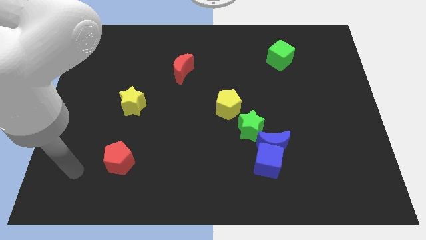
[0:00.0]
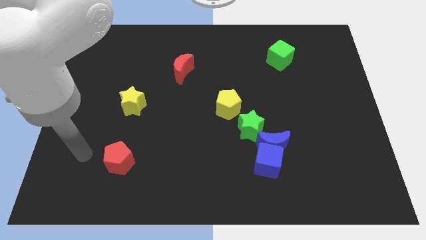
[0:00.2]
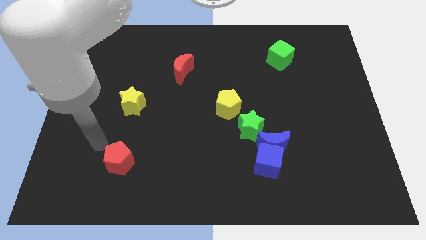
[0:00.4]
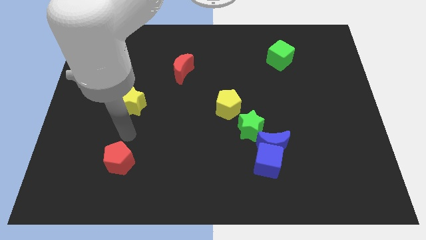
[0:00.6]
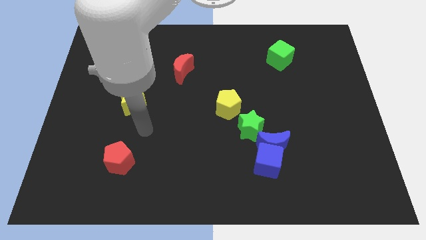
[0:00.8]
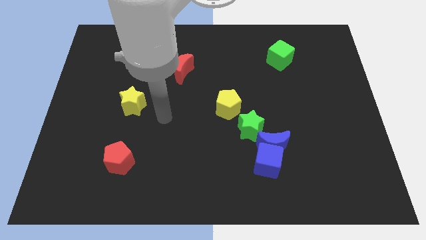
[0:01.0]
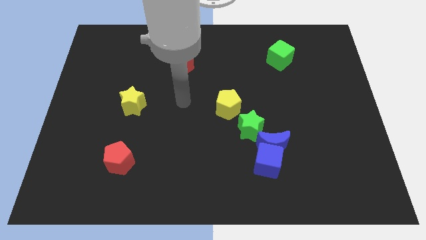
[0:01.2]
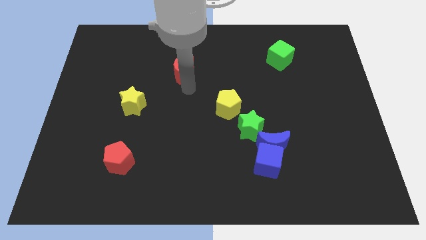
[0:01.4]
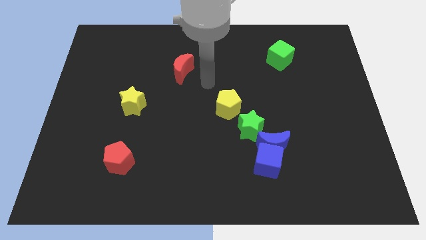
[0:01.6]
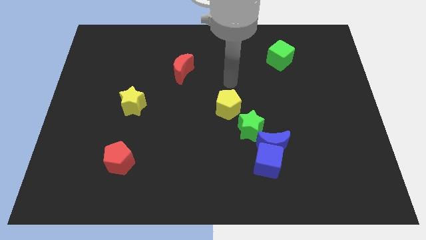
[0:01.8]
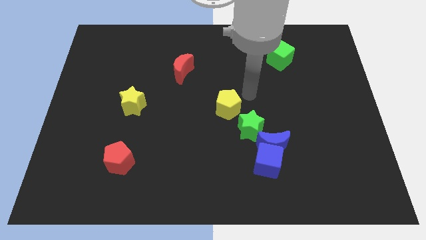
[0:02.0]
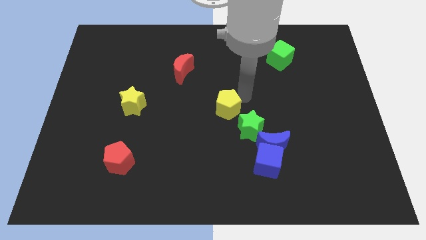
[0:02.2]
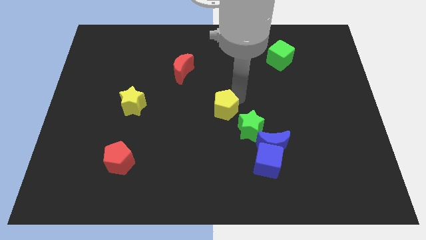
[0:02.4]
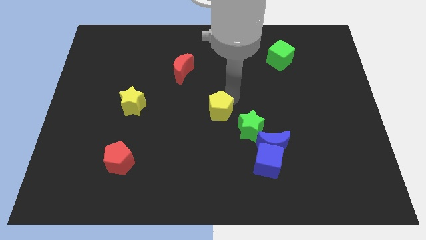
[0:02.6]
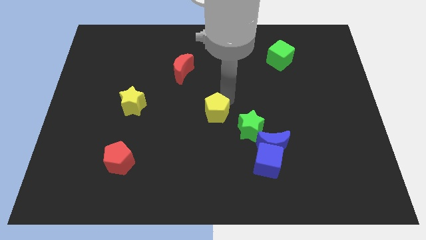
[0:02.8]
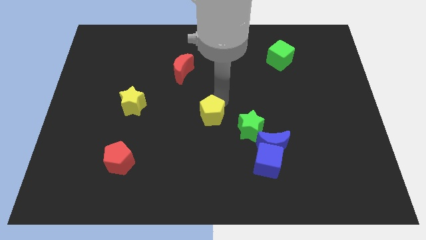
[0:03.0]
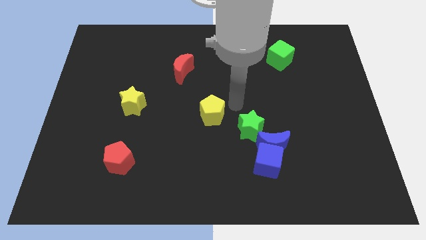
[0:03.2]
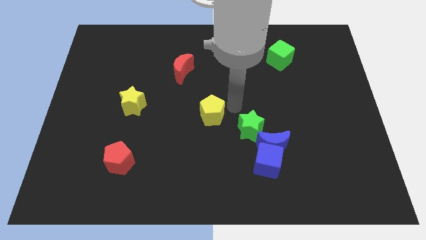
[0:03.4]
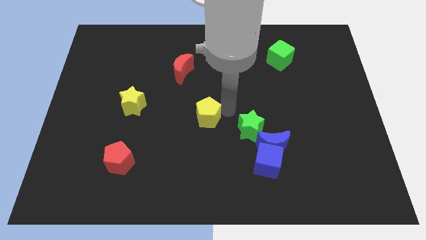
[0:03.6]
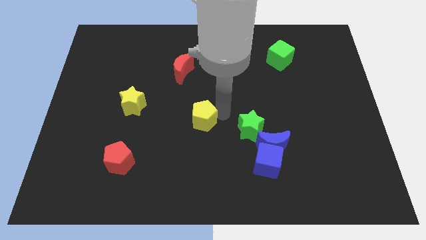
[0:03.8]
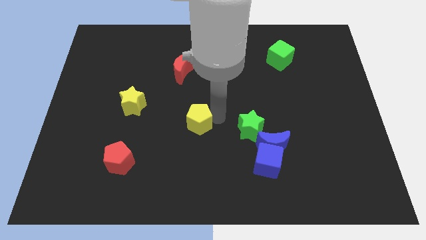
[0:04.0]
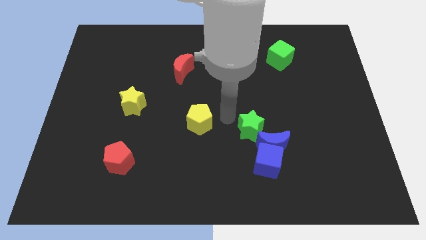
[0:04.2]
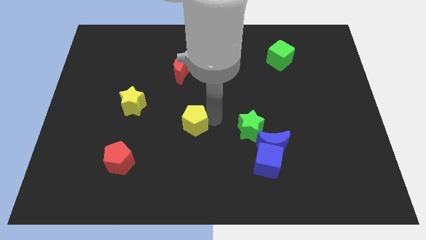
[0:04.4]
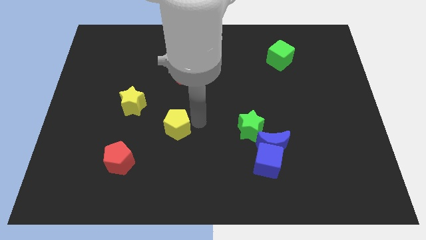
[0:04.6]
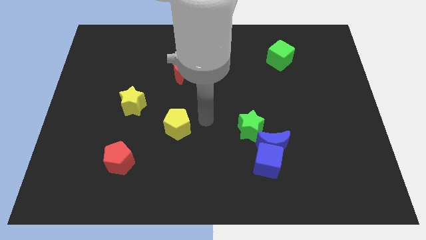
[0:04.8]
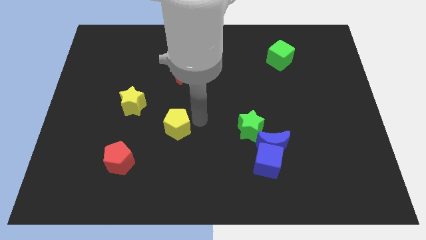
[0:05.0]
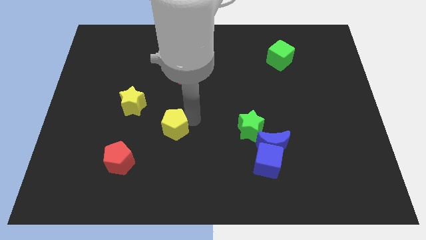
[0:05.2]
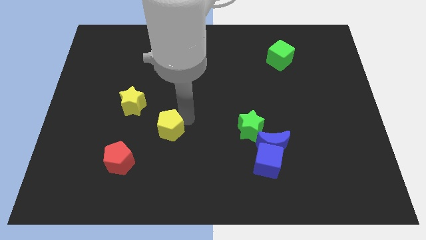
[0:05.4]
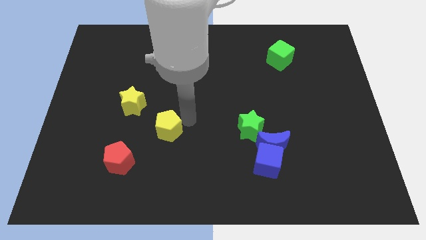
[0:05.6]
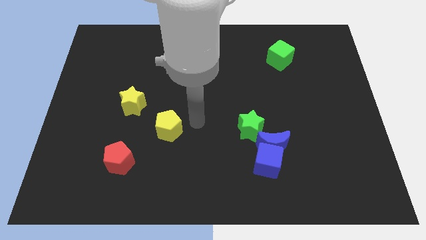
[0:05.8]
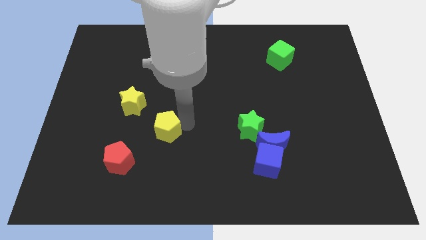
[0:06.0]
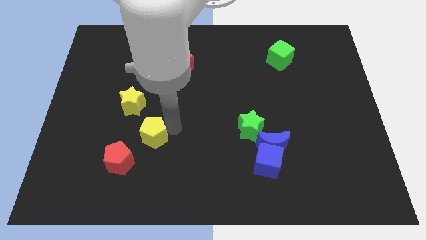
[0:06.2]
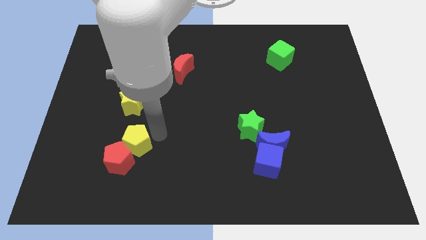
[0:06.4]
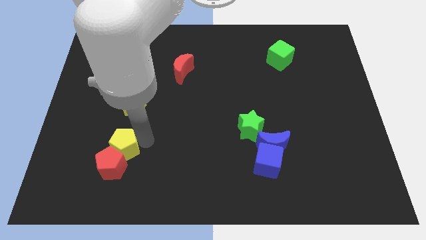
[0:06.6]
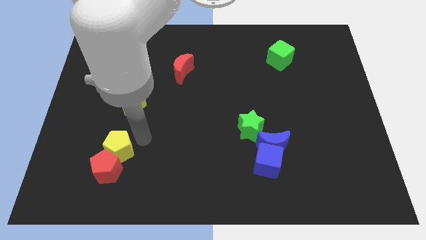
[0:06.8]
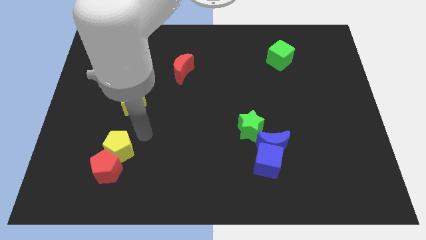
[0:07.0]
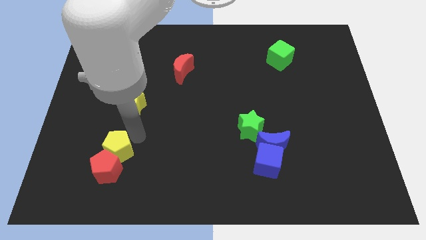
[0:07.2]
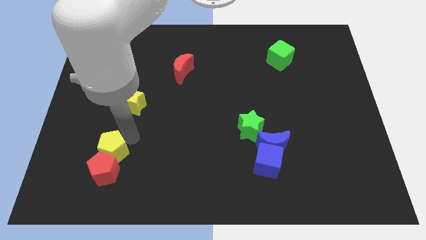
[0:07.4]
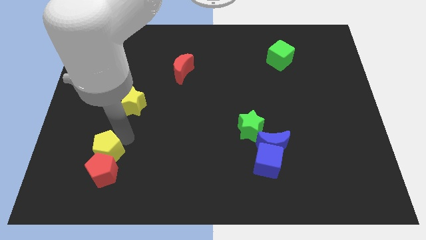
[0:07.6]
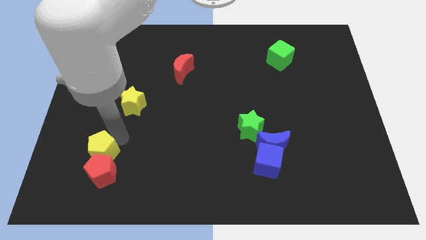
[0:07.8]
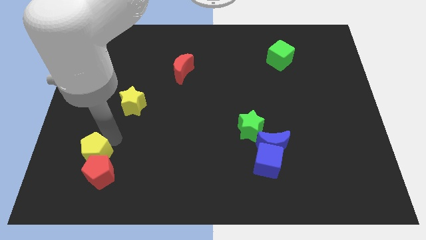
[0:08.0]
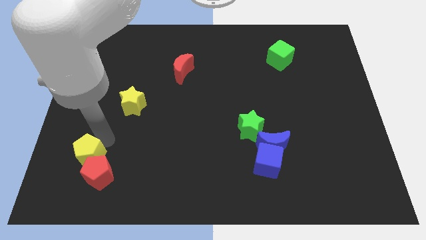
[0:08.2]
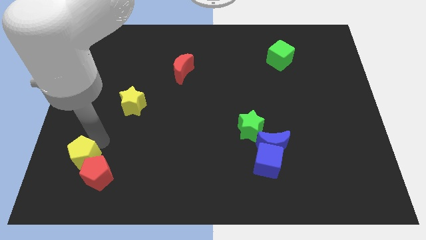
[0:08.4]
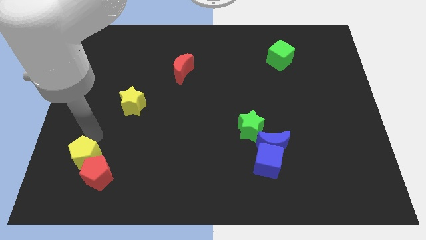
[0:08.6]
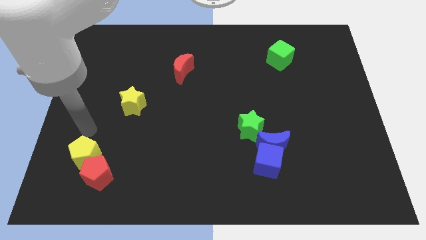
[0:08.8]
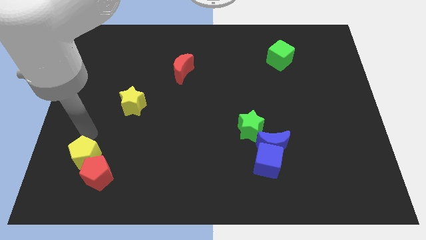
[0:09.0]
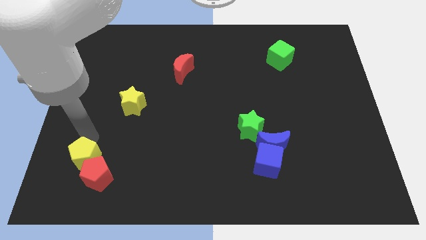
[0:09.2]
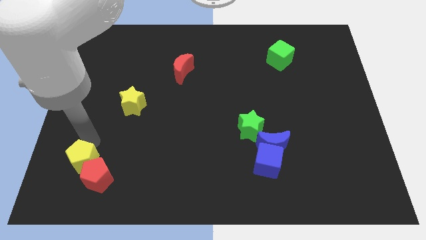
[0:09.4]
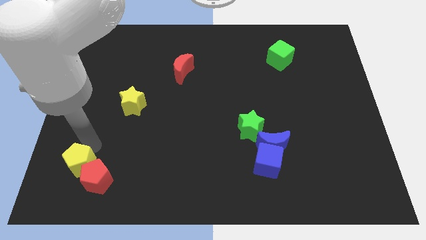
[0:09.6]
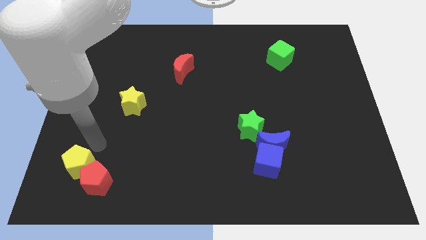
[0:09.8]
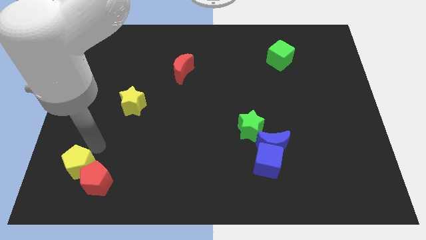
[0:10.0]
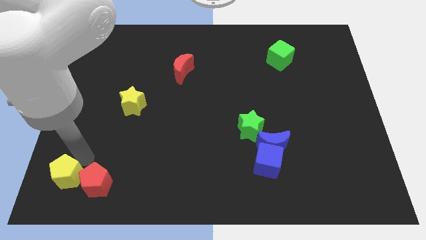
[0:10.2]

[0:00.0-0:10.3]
push the yellow pentagon to the bottom left of the board

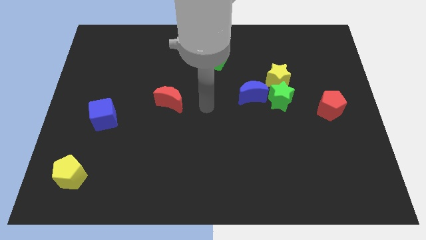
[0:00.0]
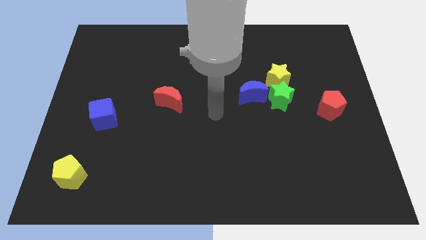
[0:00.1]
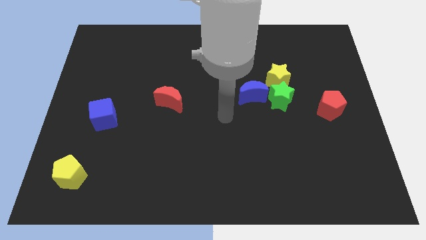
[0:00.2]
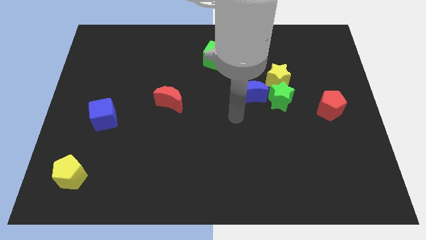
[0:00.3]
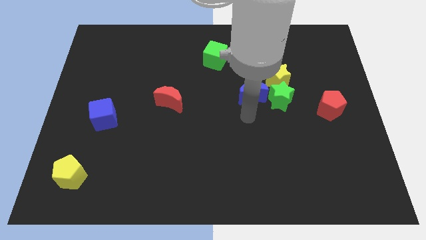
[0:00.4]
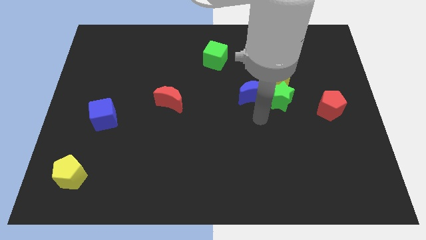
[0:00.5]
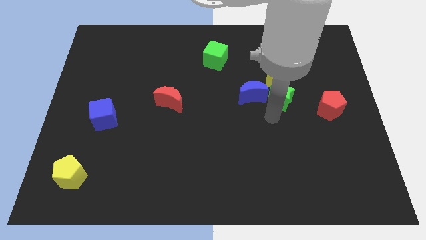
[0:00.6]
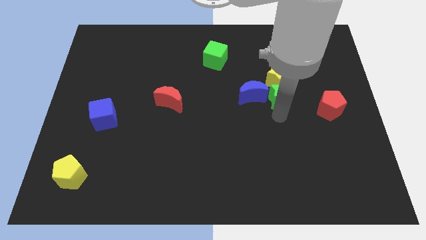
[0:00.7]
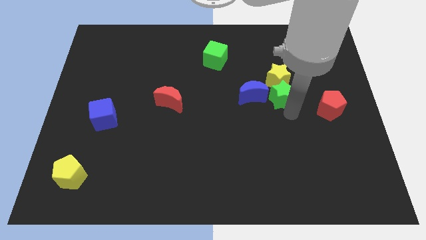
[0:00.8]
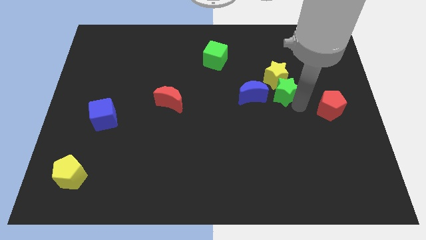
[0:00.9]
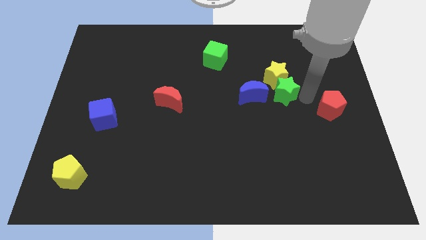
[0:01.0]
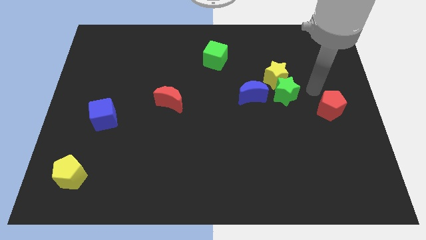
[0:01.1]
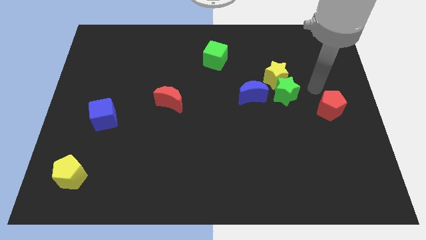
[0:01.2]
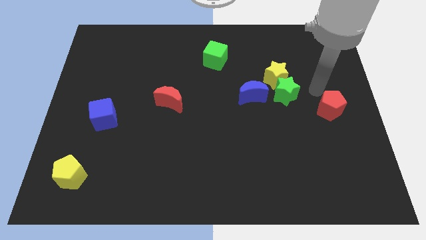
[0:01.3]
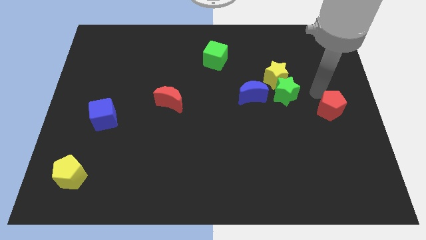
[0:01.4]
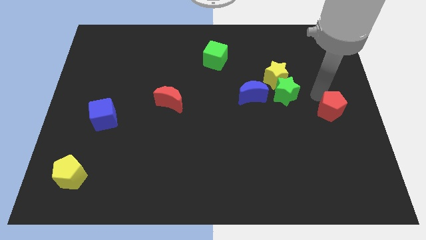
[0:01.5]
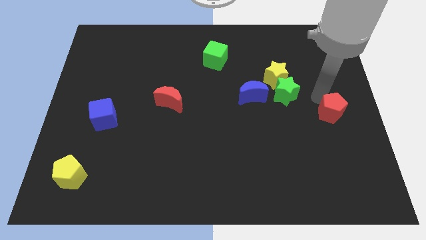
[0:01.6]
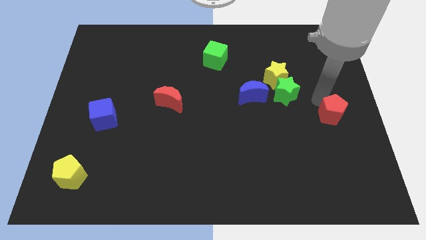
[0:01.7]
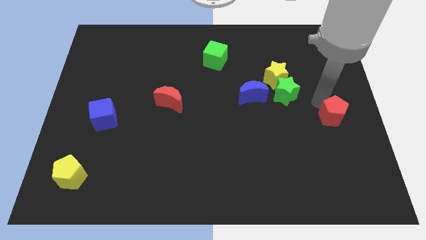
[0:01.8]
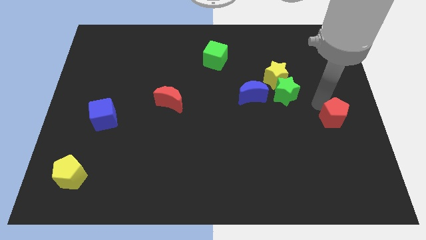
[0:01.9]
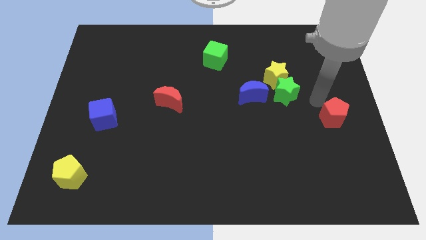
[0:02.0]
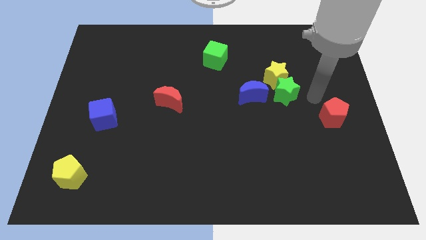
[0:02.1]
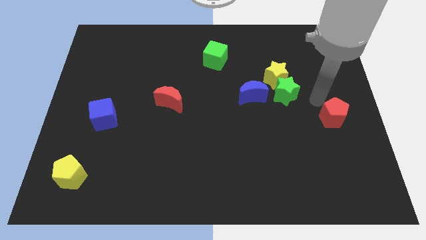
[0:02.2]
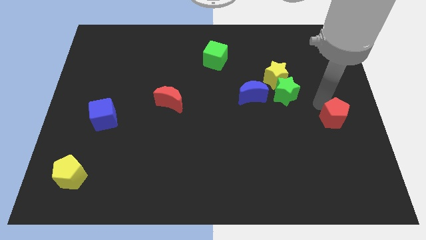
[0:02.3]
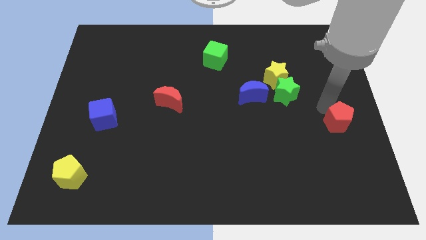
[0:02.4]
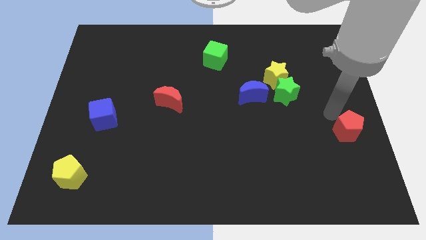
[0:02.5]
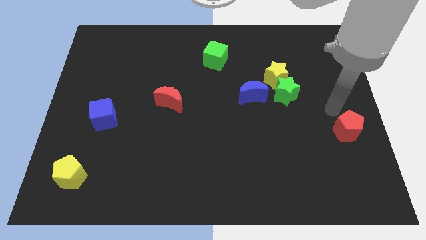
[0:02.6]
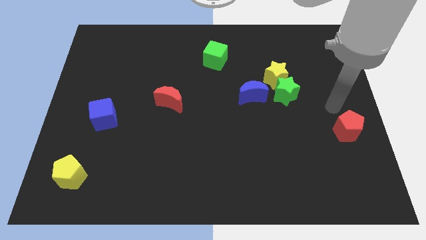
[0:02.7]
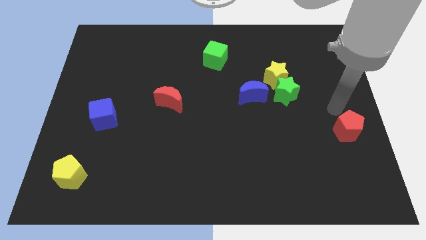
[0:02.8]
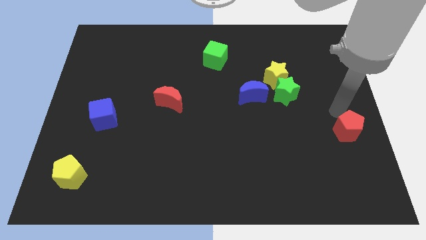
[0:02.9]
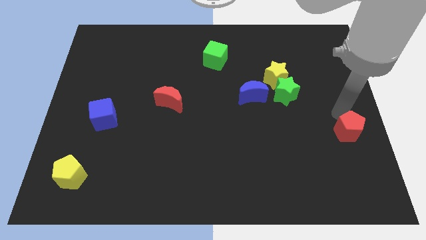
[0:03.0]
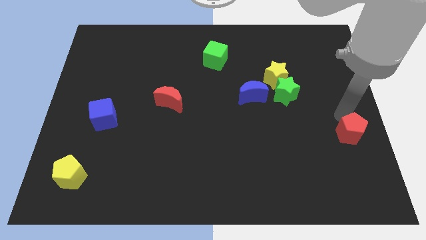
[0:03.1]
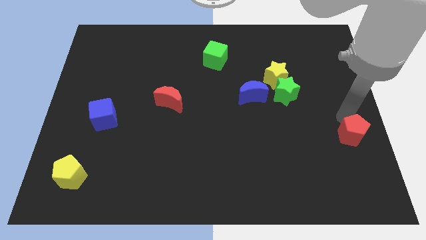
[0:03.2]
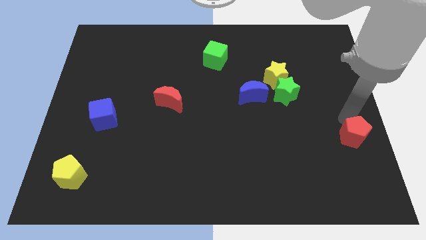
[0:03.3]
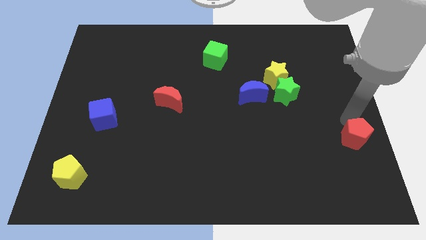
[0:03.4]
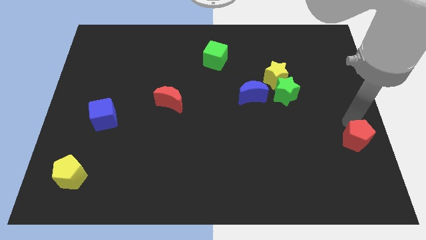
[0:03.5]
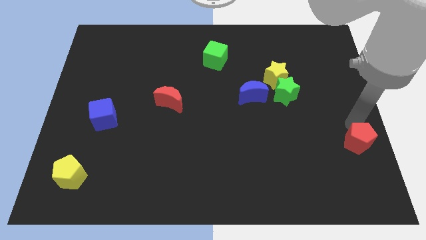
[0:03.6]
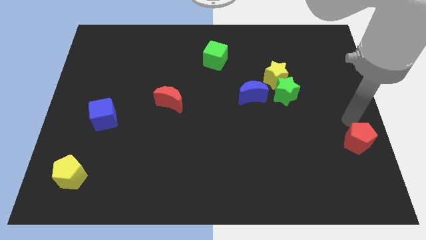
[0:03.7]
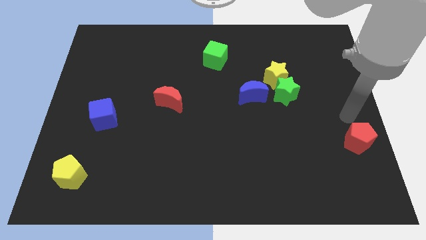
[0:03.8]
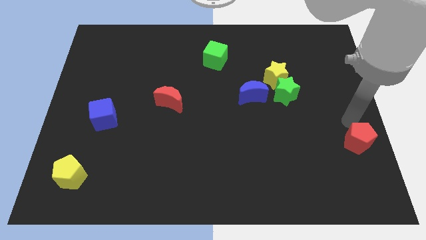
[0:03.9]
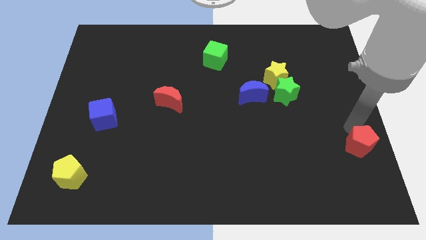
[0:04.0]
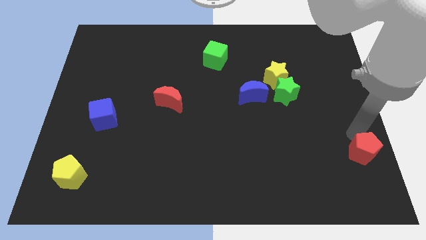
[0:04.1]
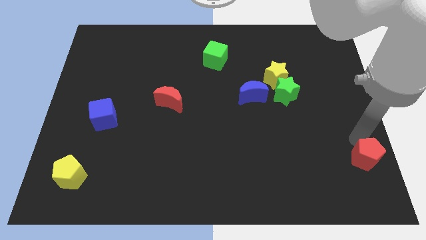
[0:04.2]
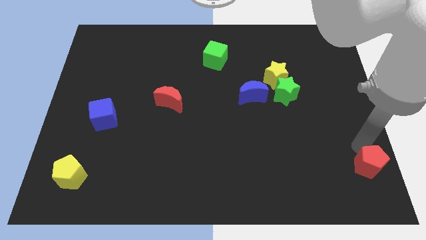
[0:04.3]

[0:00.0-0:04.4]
slide the red pentagon to the lower right corner
